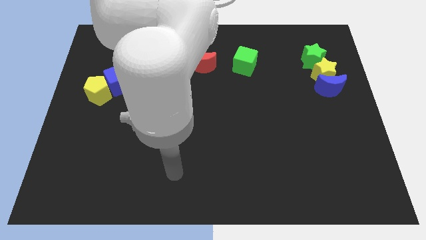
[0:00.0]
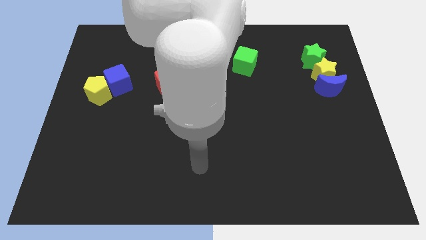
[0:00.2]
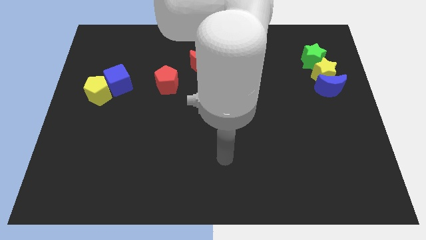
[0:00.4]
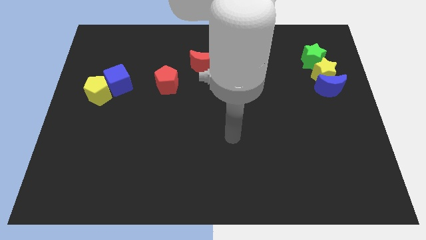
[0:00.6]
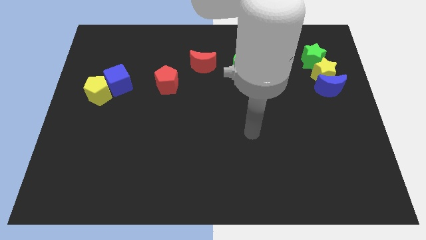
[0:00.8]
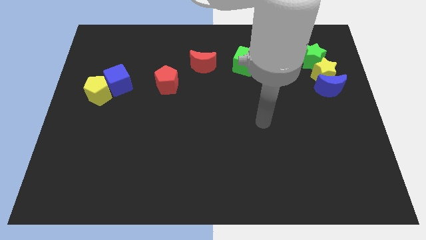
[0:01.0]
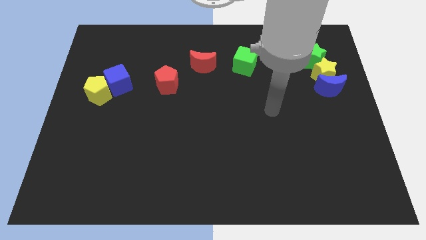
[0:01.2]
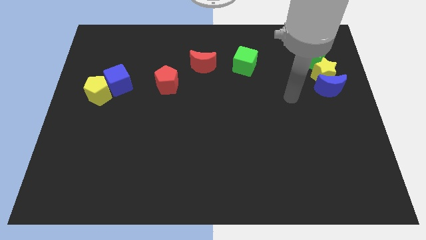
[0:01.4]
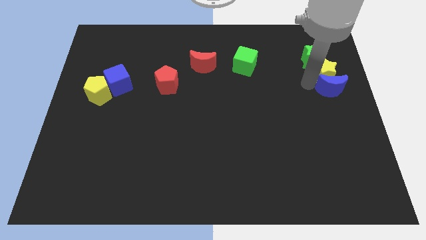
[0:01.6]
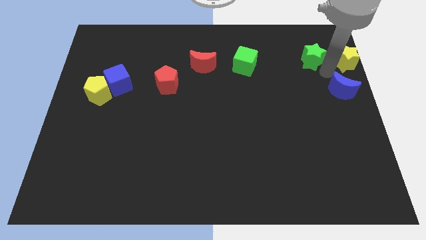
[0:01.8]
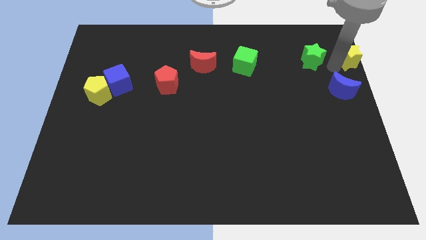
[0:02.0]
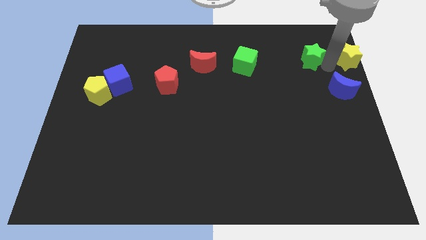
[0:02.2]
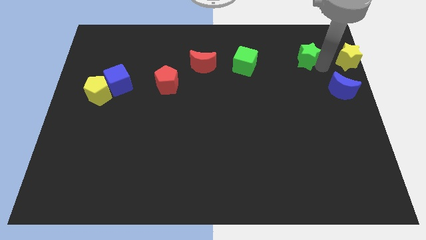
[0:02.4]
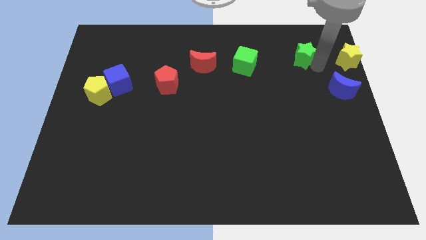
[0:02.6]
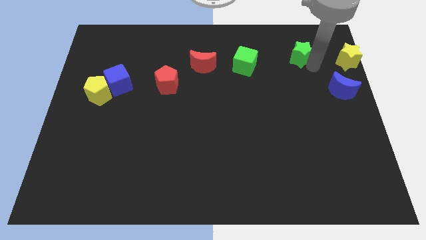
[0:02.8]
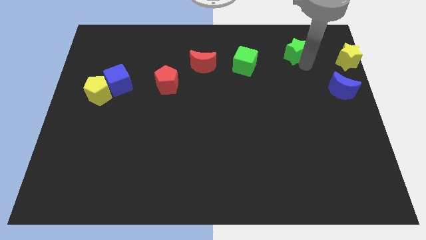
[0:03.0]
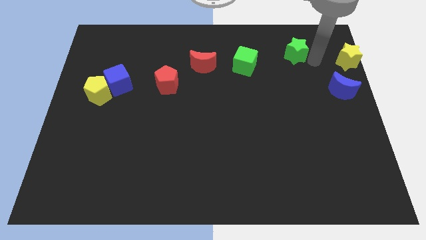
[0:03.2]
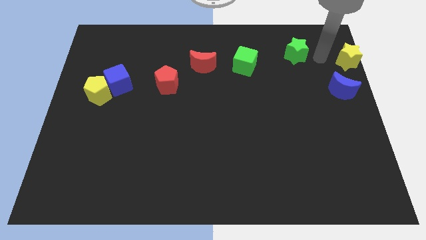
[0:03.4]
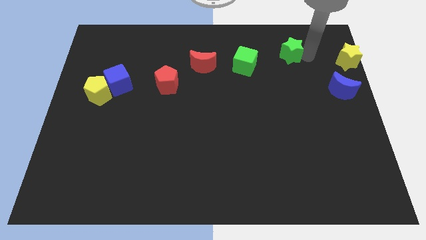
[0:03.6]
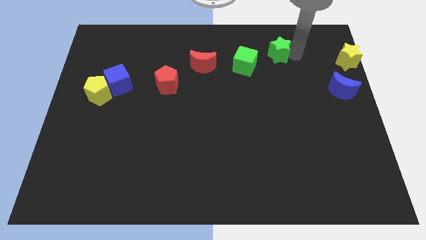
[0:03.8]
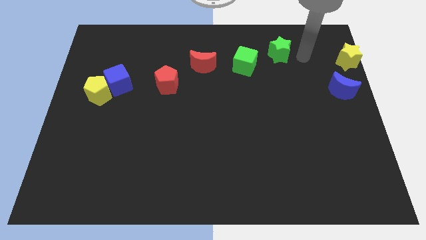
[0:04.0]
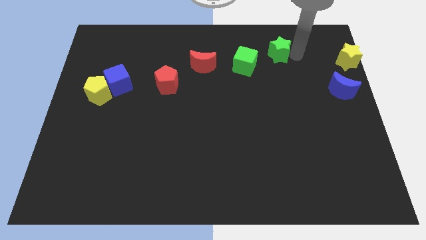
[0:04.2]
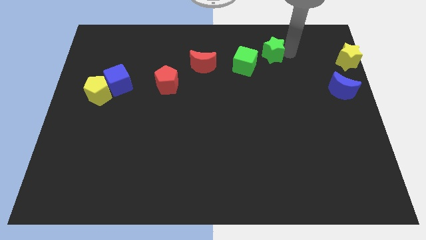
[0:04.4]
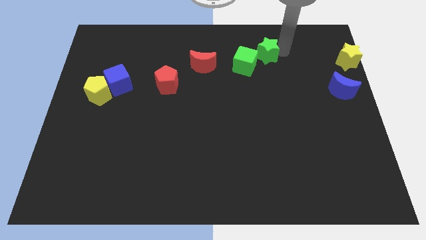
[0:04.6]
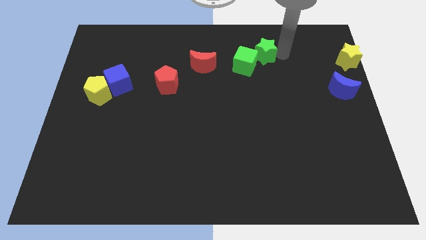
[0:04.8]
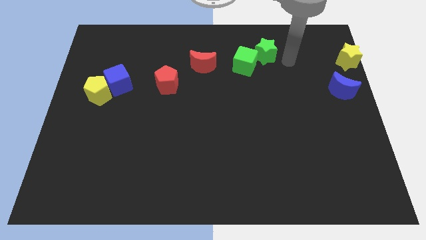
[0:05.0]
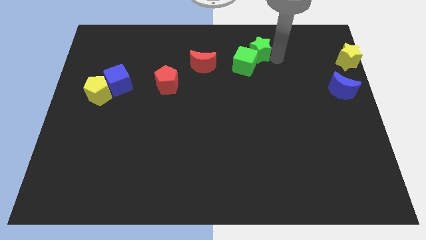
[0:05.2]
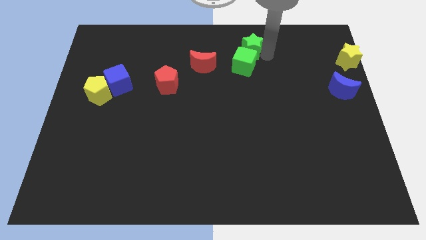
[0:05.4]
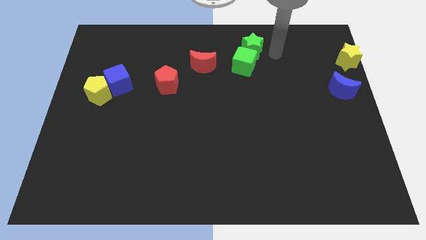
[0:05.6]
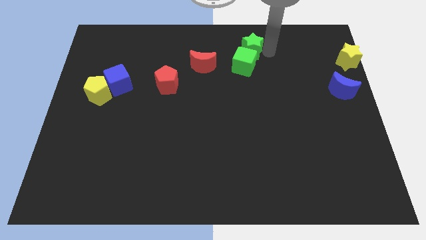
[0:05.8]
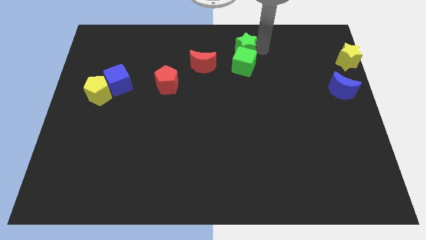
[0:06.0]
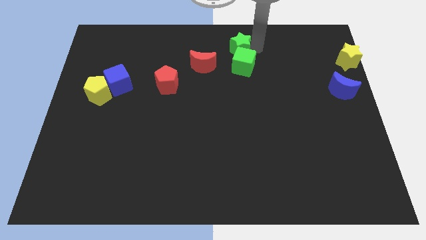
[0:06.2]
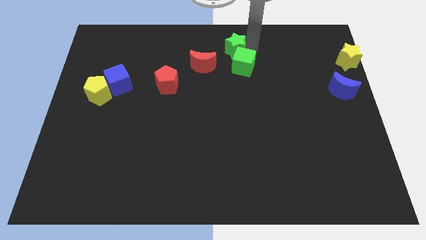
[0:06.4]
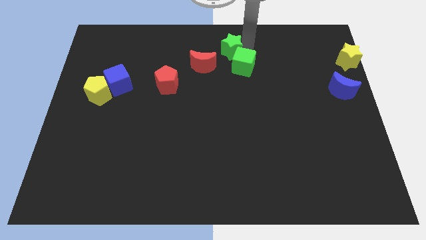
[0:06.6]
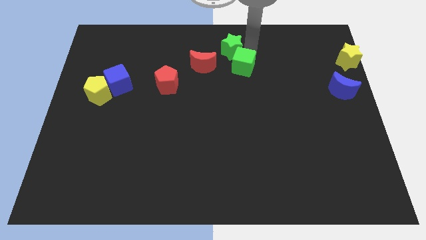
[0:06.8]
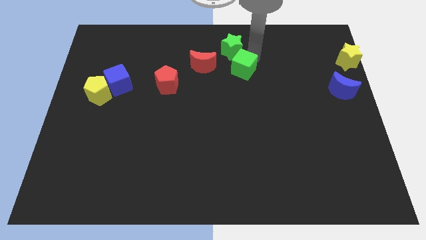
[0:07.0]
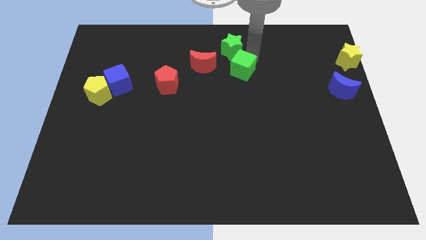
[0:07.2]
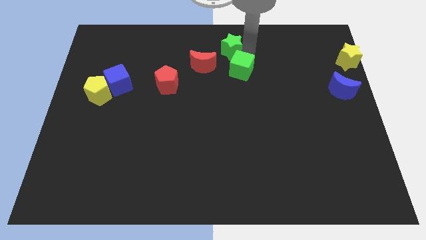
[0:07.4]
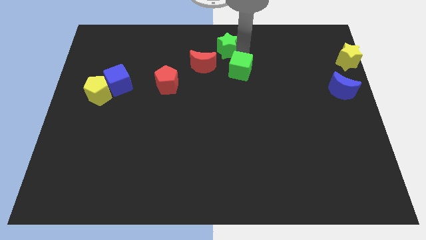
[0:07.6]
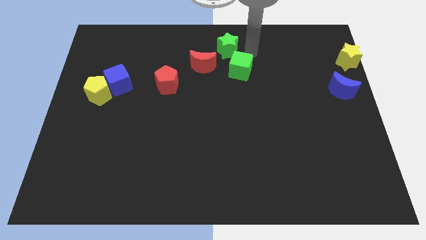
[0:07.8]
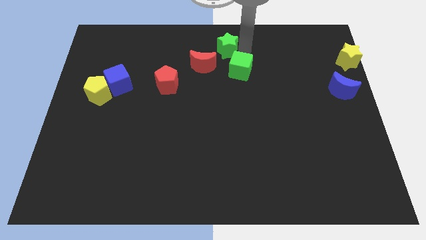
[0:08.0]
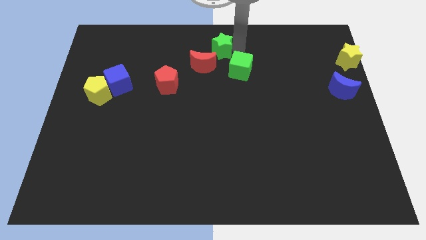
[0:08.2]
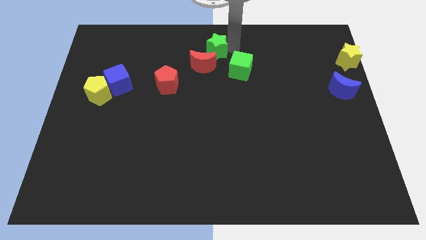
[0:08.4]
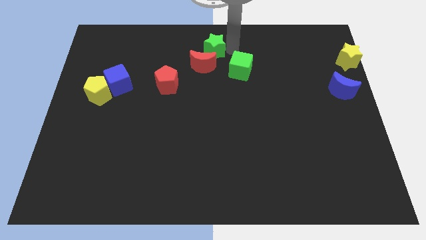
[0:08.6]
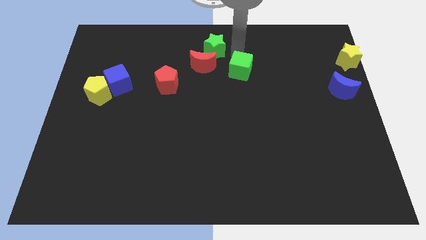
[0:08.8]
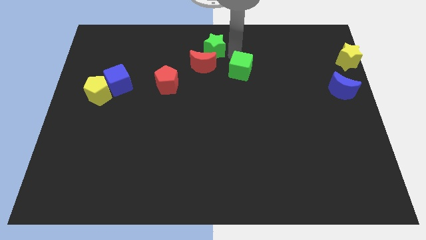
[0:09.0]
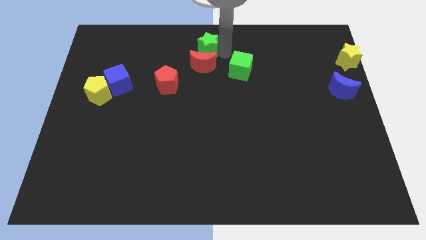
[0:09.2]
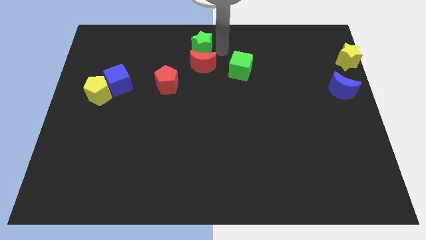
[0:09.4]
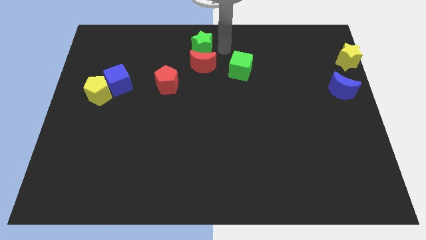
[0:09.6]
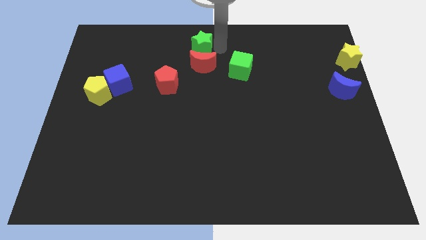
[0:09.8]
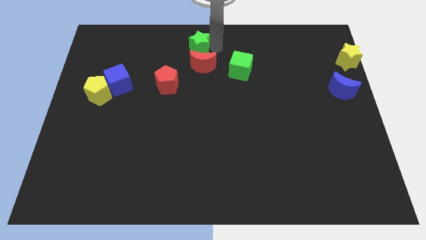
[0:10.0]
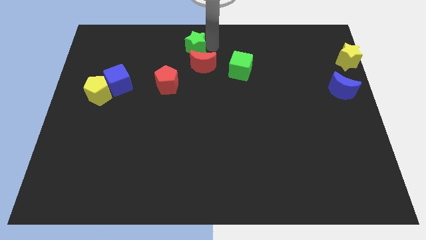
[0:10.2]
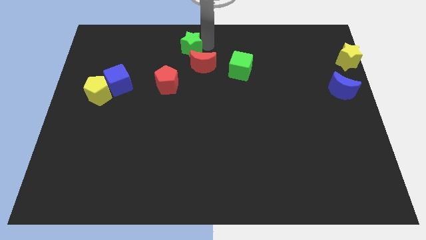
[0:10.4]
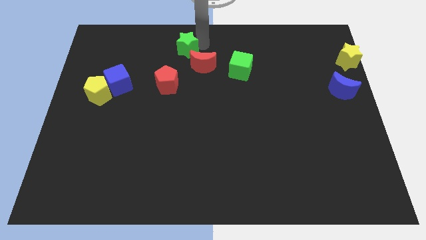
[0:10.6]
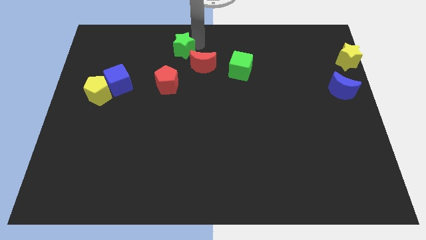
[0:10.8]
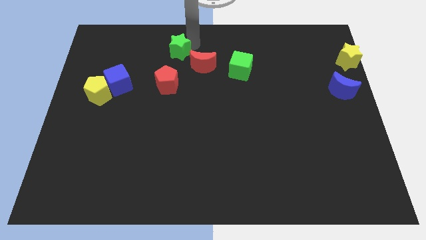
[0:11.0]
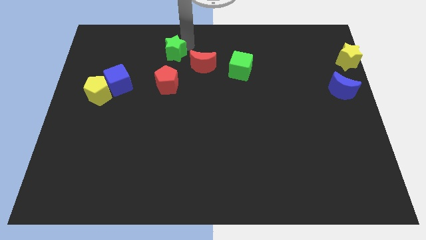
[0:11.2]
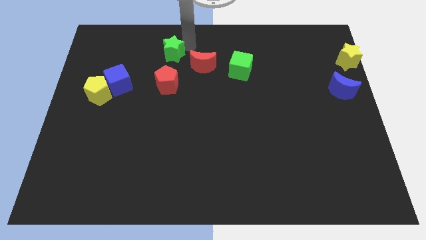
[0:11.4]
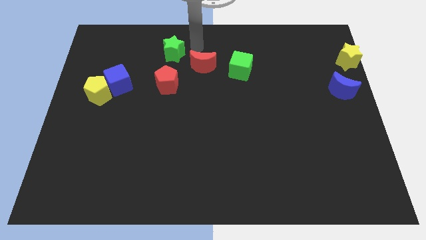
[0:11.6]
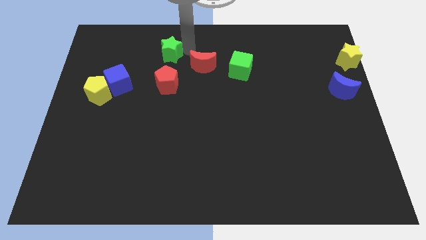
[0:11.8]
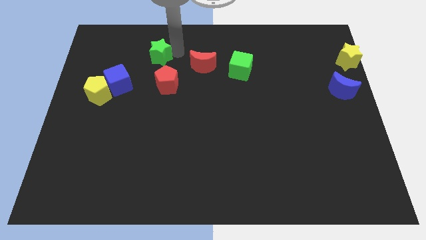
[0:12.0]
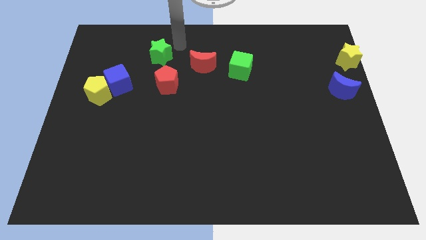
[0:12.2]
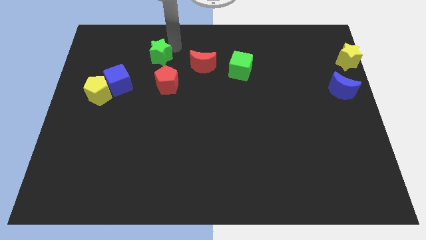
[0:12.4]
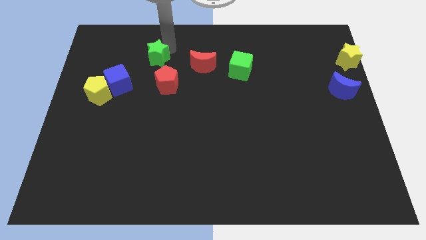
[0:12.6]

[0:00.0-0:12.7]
push the green star to the top right of the blue cube
